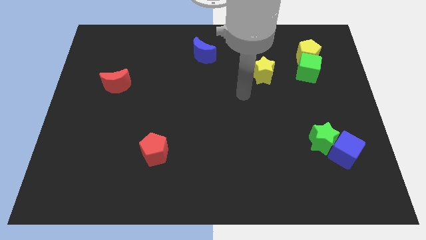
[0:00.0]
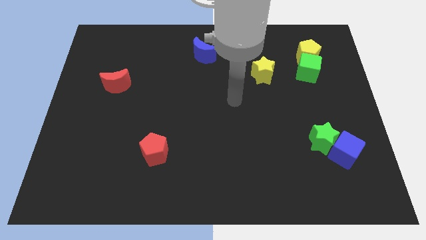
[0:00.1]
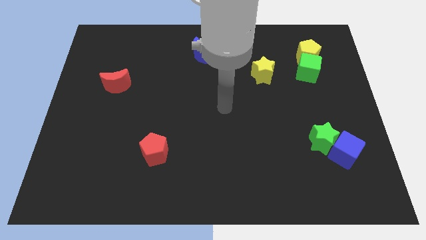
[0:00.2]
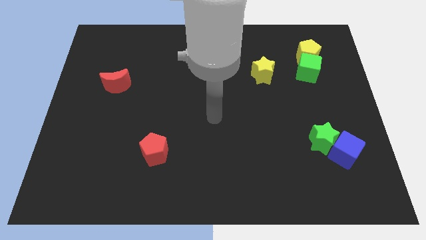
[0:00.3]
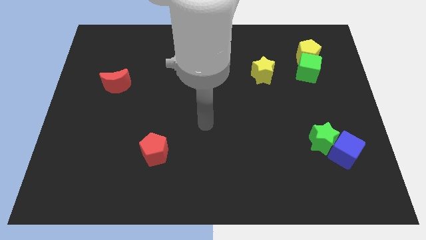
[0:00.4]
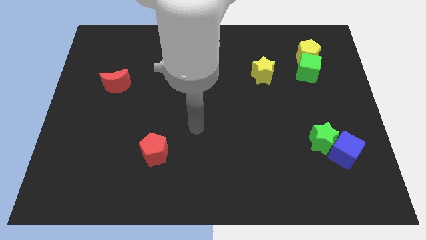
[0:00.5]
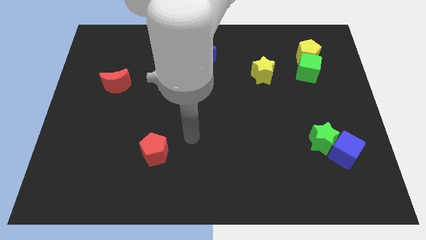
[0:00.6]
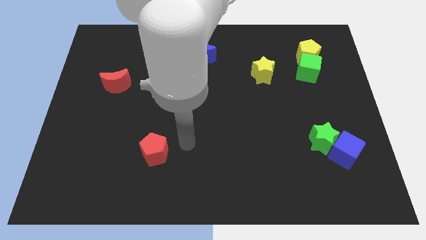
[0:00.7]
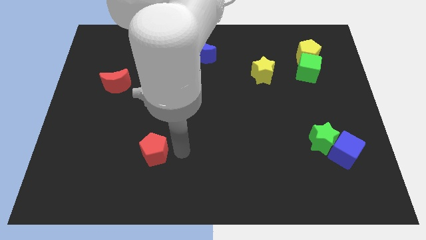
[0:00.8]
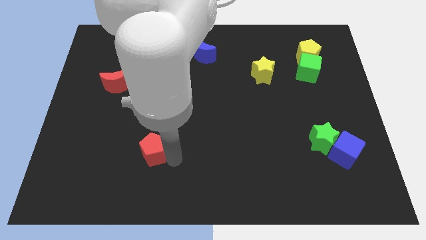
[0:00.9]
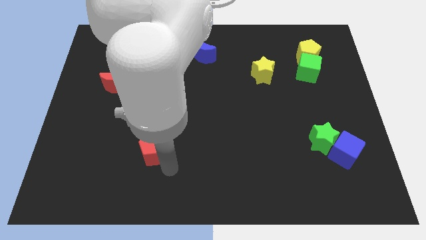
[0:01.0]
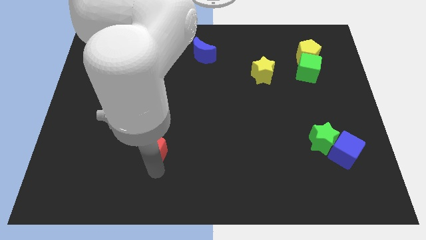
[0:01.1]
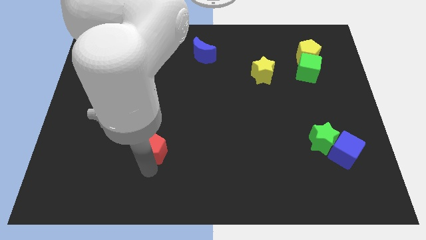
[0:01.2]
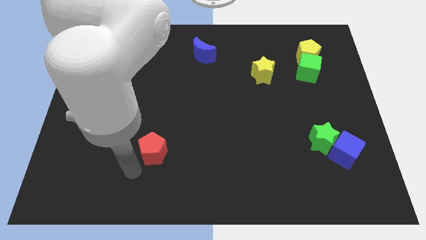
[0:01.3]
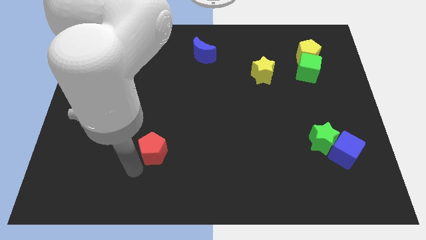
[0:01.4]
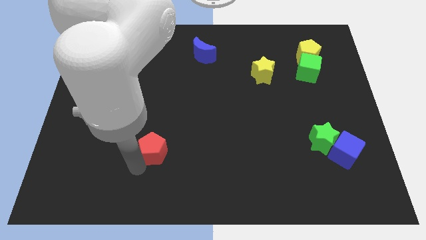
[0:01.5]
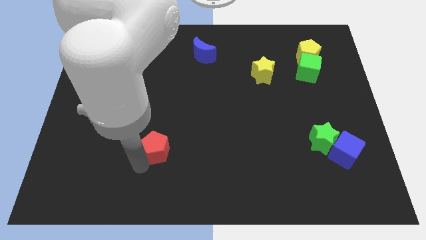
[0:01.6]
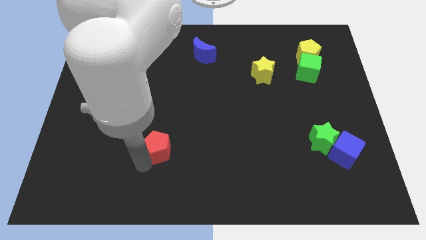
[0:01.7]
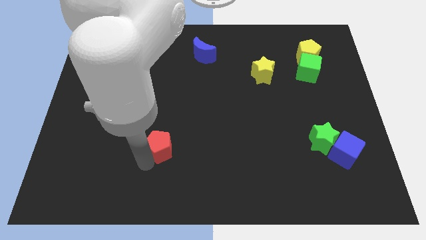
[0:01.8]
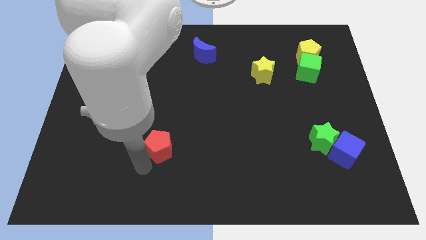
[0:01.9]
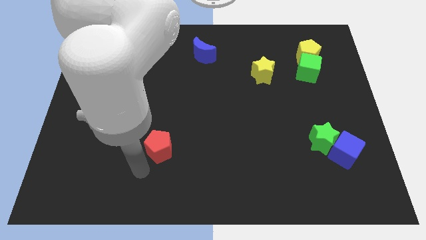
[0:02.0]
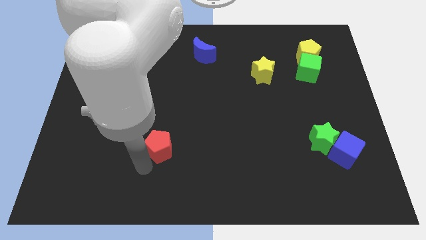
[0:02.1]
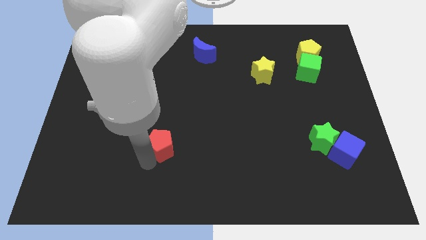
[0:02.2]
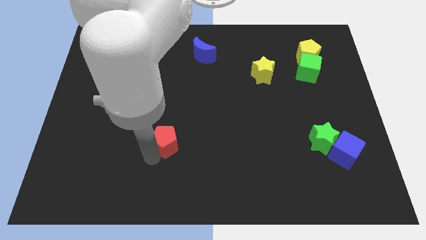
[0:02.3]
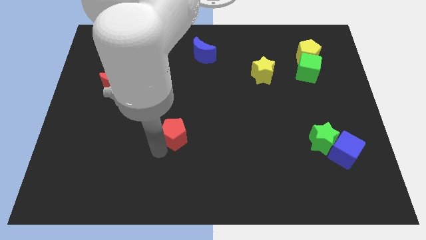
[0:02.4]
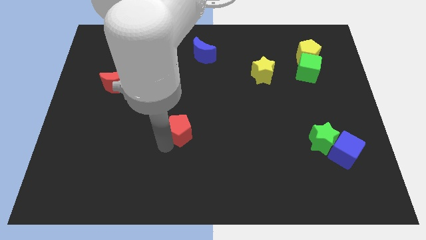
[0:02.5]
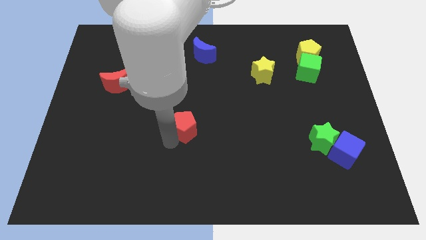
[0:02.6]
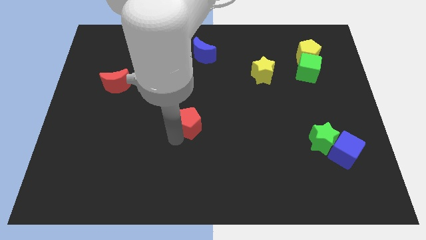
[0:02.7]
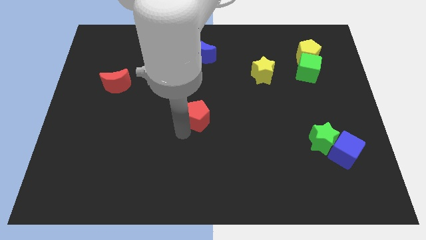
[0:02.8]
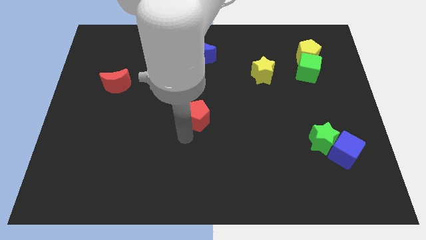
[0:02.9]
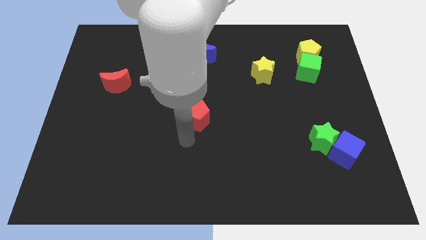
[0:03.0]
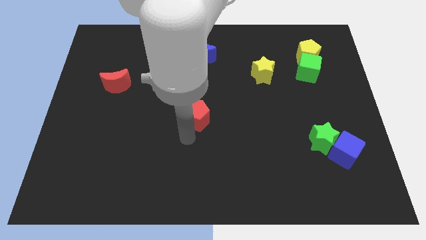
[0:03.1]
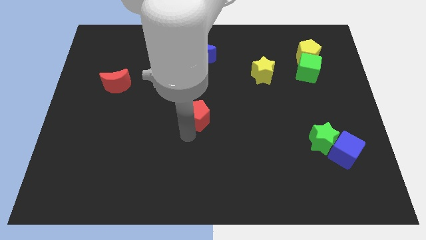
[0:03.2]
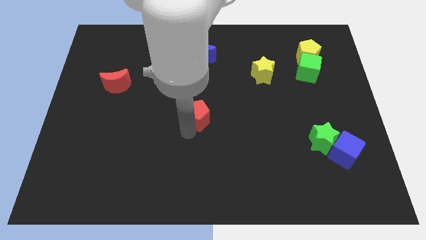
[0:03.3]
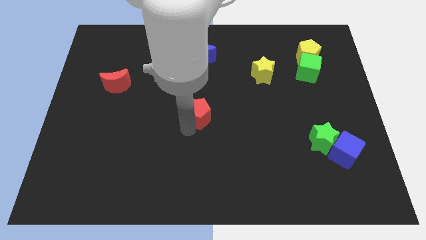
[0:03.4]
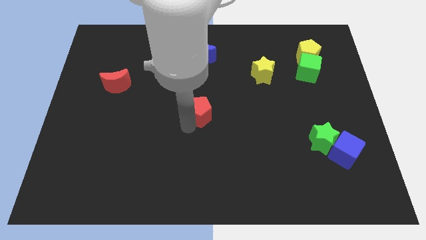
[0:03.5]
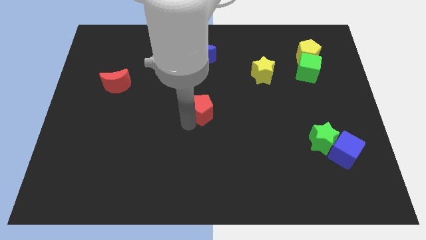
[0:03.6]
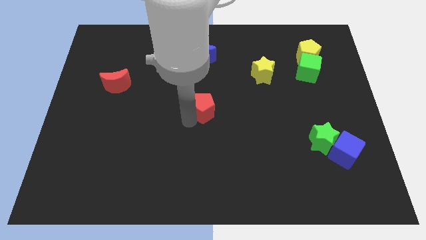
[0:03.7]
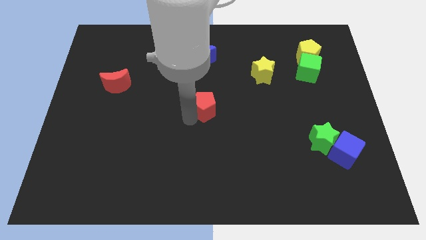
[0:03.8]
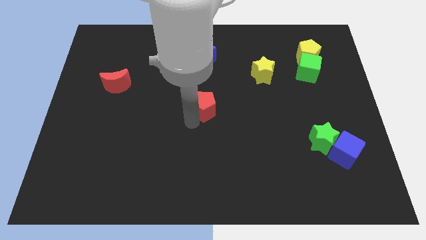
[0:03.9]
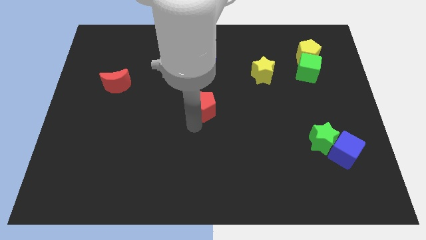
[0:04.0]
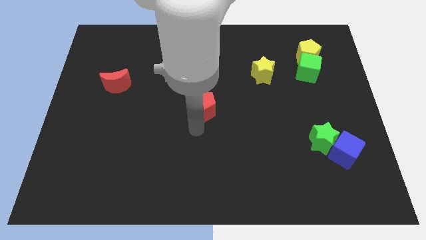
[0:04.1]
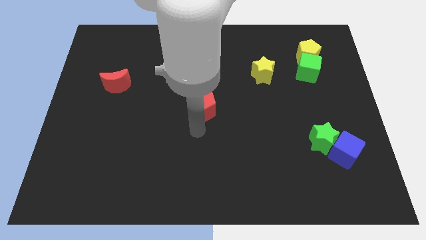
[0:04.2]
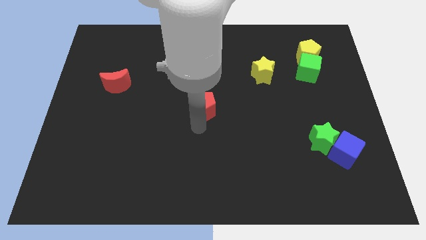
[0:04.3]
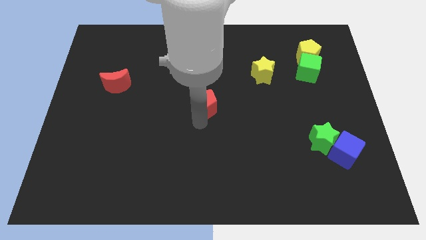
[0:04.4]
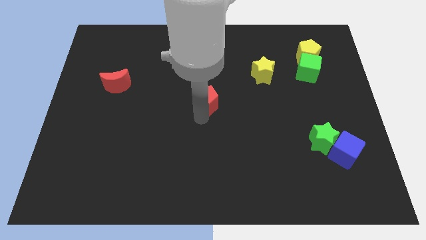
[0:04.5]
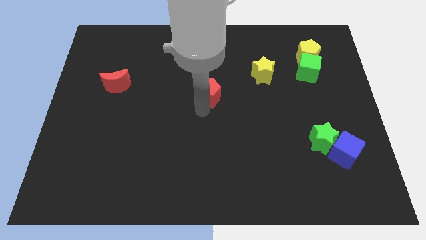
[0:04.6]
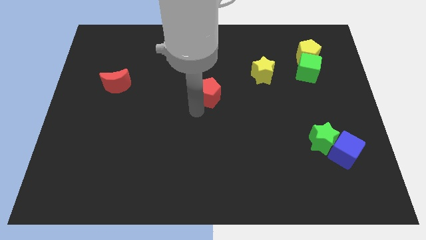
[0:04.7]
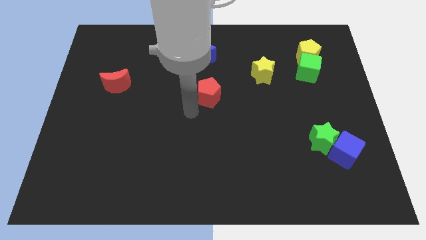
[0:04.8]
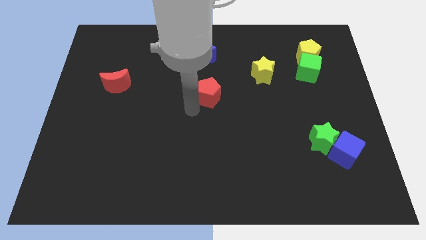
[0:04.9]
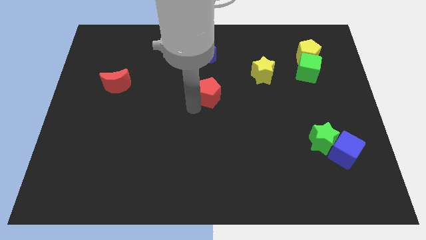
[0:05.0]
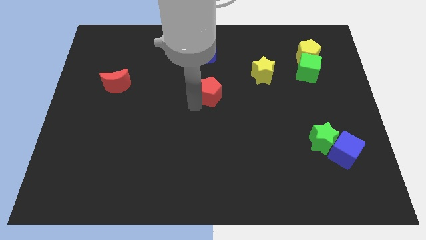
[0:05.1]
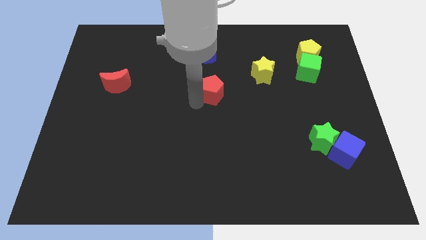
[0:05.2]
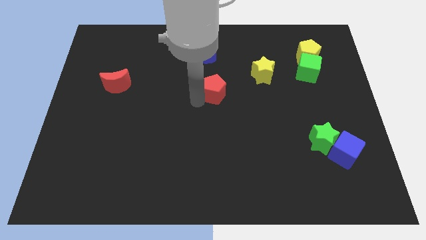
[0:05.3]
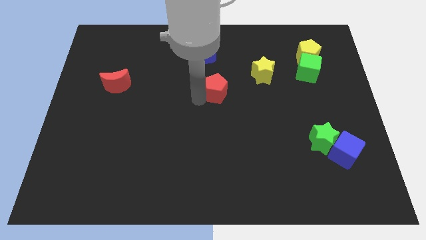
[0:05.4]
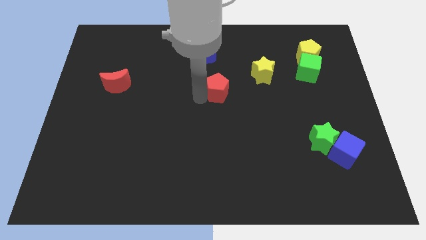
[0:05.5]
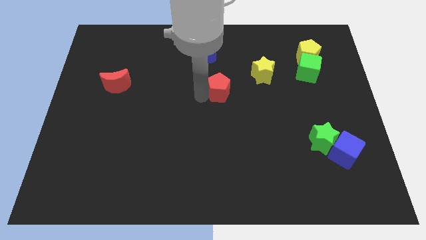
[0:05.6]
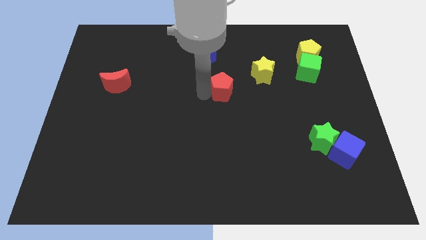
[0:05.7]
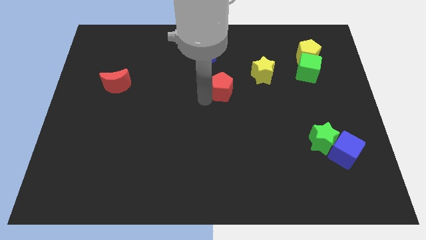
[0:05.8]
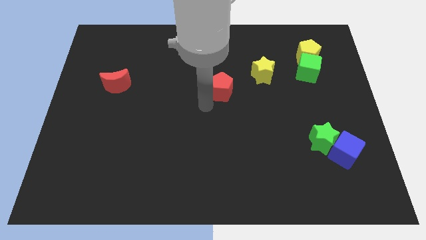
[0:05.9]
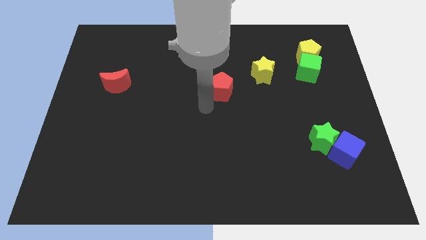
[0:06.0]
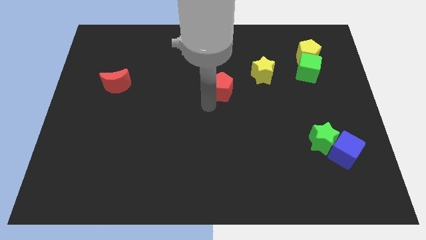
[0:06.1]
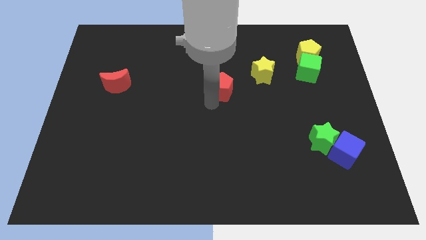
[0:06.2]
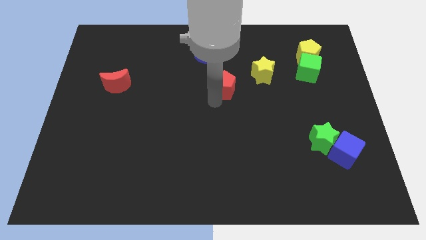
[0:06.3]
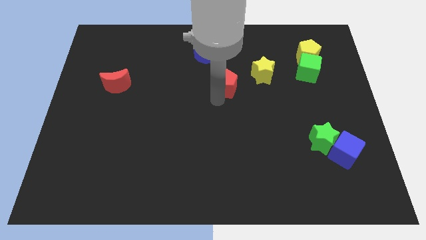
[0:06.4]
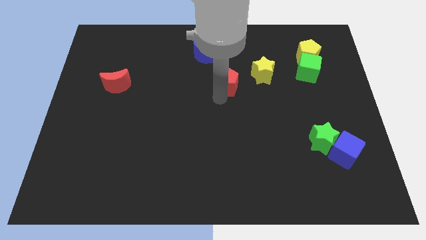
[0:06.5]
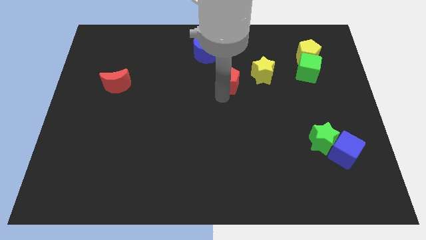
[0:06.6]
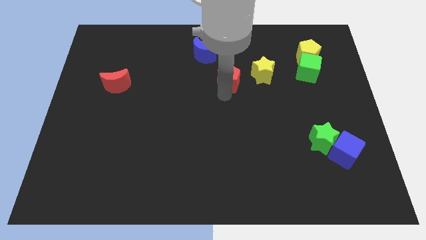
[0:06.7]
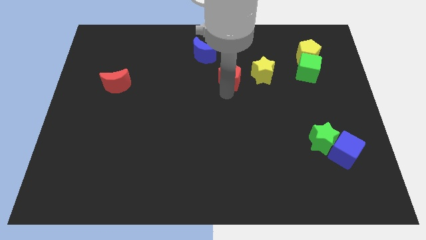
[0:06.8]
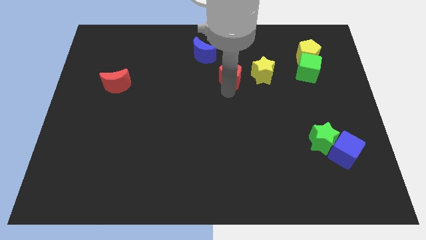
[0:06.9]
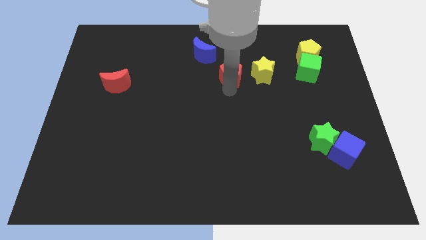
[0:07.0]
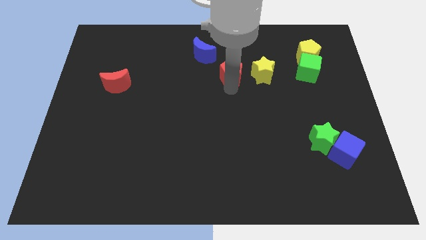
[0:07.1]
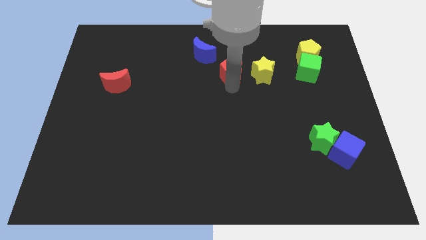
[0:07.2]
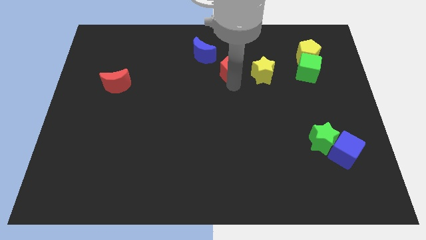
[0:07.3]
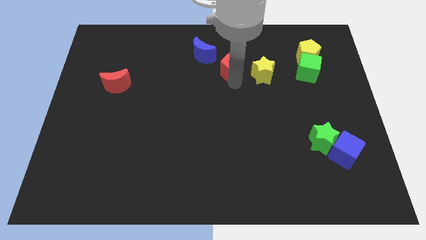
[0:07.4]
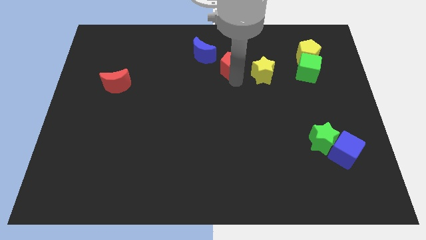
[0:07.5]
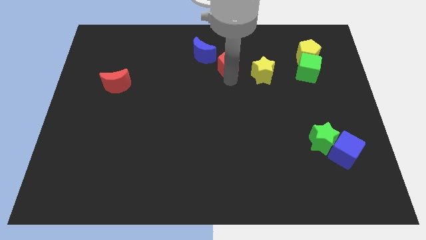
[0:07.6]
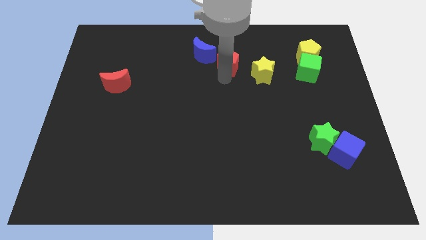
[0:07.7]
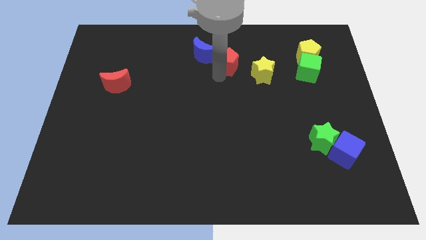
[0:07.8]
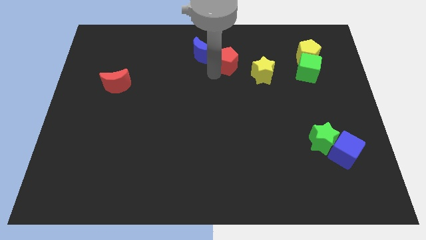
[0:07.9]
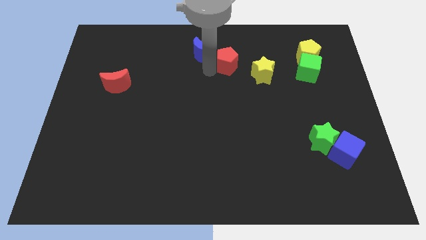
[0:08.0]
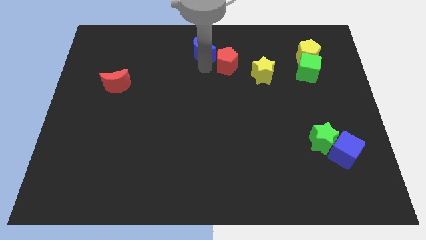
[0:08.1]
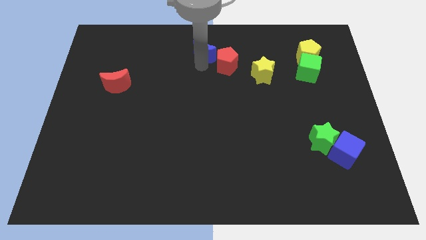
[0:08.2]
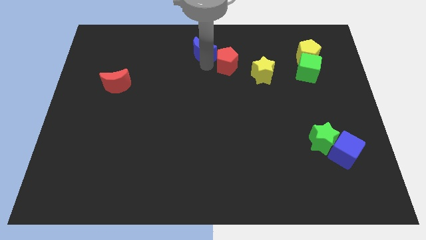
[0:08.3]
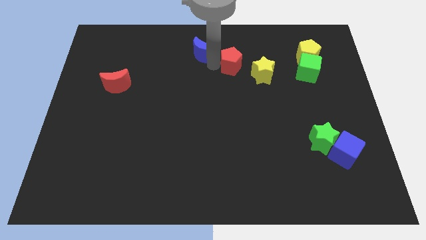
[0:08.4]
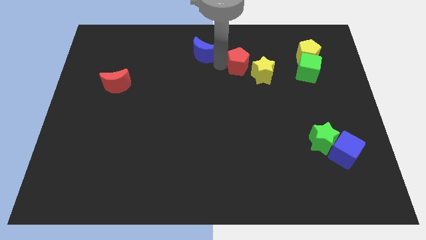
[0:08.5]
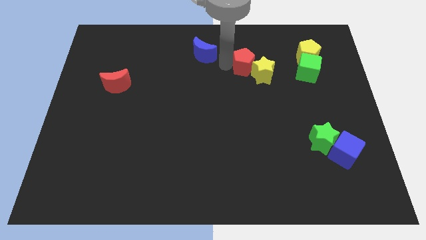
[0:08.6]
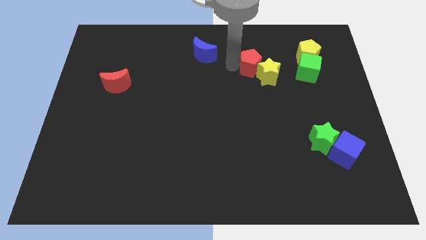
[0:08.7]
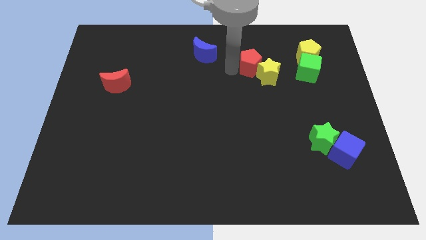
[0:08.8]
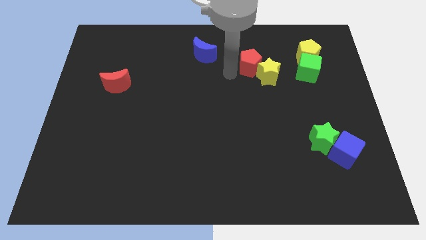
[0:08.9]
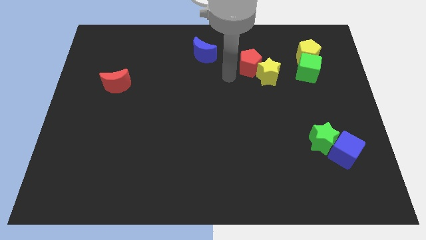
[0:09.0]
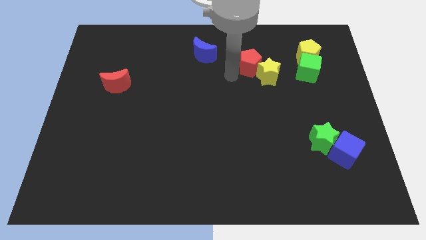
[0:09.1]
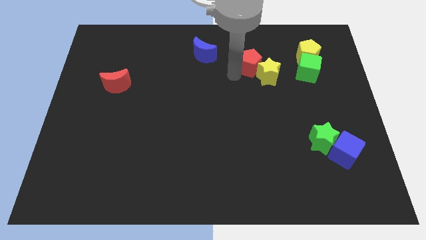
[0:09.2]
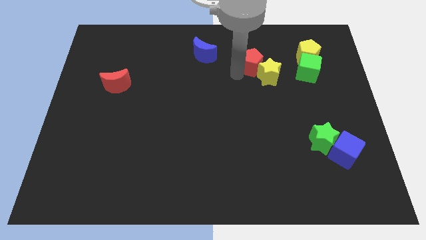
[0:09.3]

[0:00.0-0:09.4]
slide the red pentagon left of the yellow pentagon
